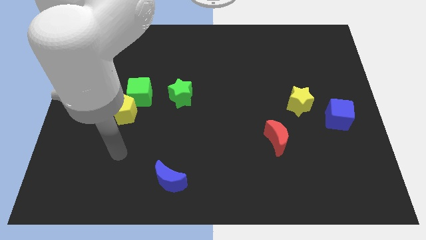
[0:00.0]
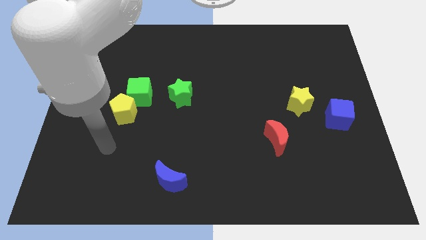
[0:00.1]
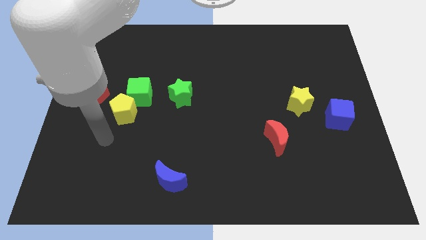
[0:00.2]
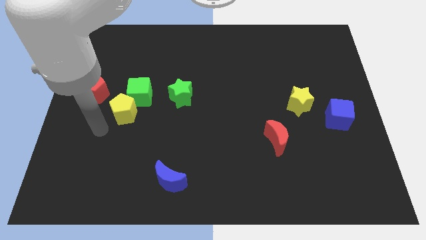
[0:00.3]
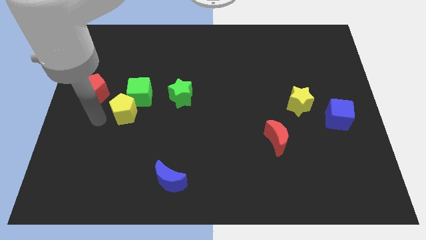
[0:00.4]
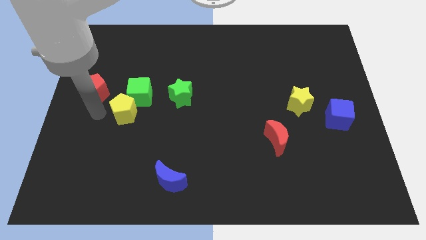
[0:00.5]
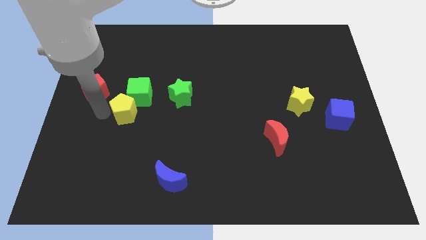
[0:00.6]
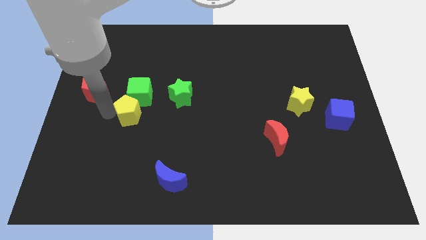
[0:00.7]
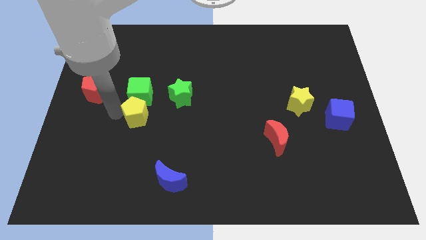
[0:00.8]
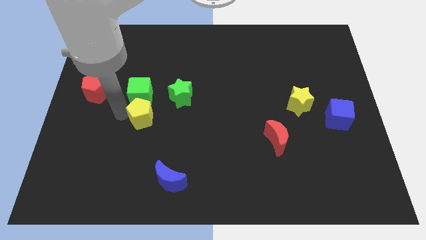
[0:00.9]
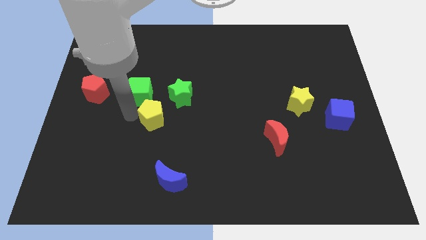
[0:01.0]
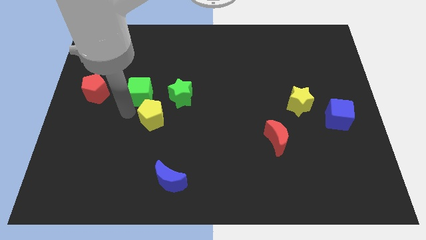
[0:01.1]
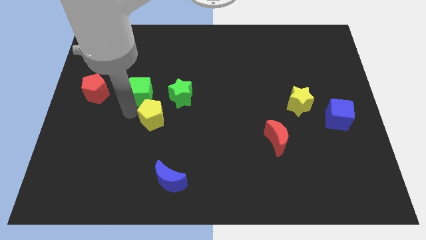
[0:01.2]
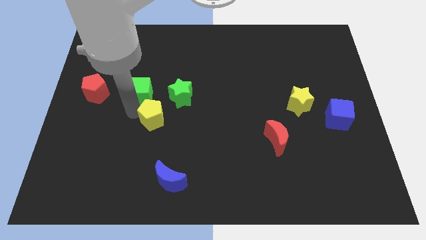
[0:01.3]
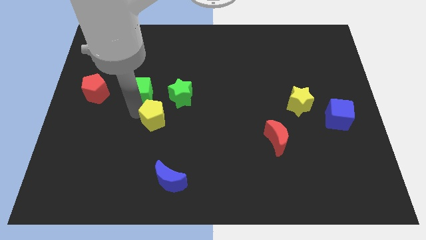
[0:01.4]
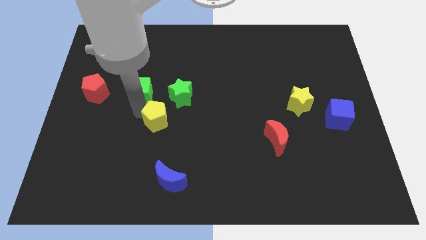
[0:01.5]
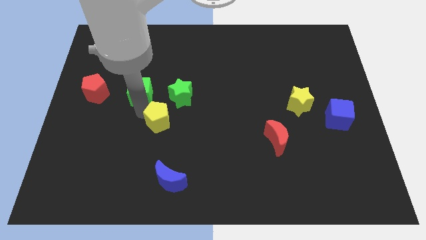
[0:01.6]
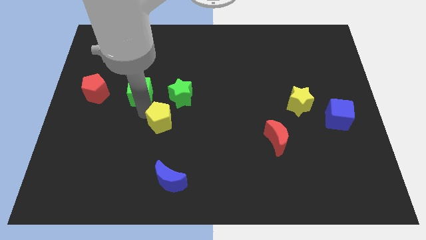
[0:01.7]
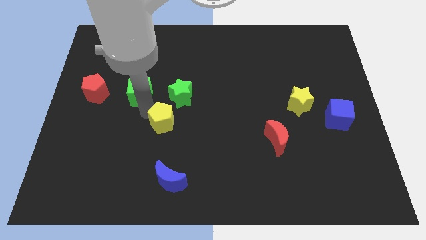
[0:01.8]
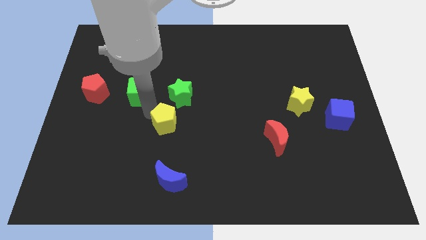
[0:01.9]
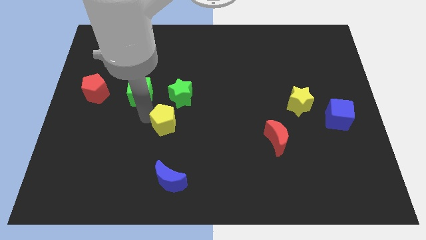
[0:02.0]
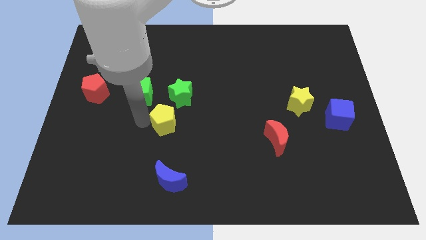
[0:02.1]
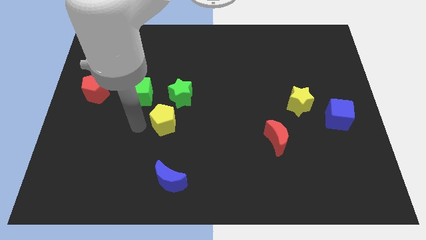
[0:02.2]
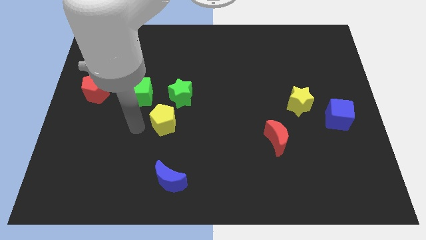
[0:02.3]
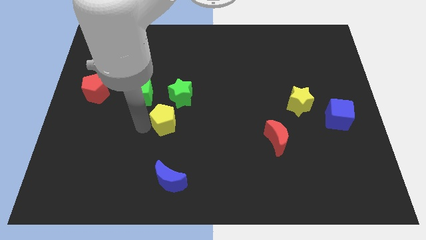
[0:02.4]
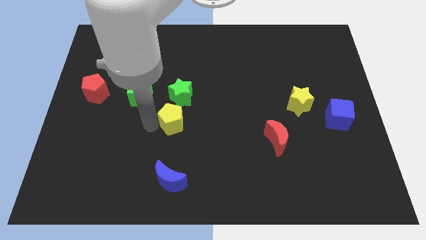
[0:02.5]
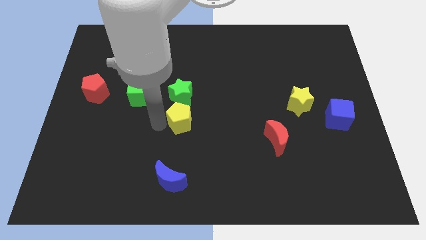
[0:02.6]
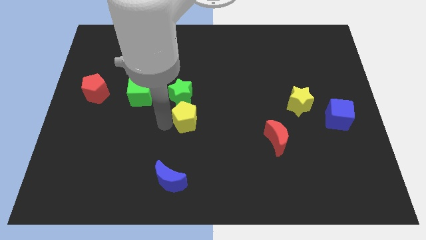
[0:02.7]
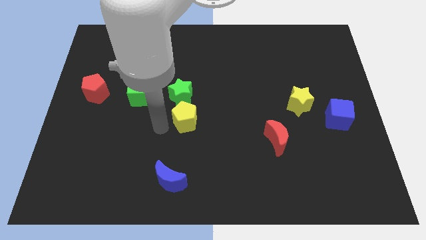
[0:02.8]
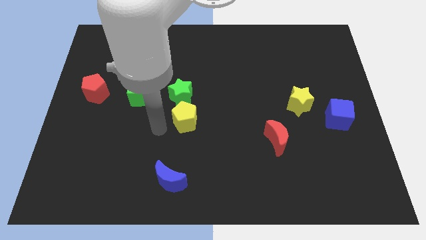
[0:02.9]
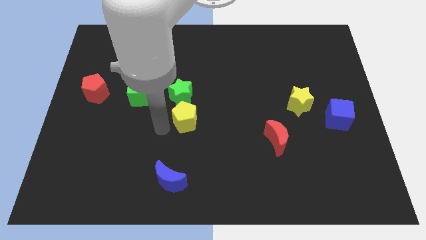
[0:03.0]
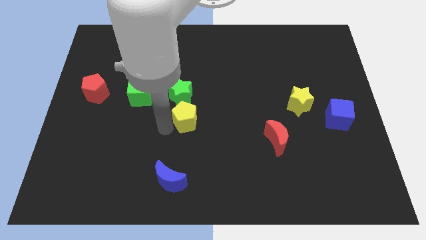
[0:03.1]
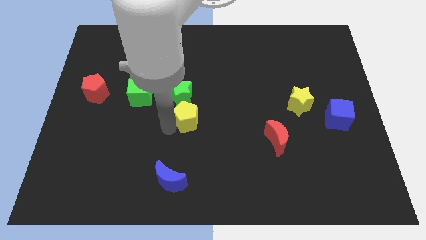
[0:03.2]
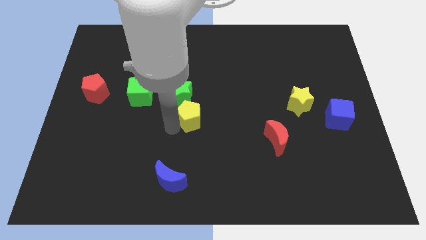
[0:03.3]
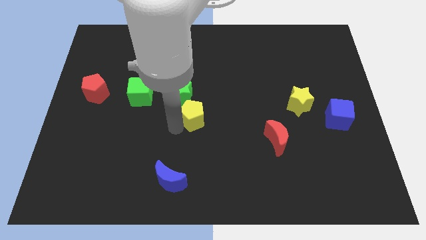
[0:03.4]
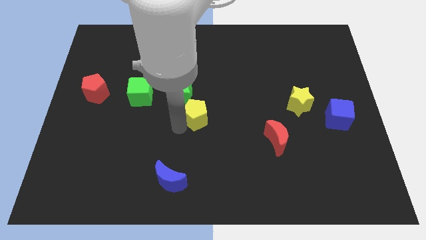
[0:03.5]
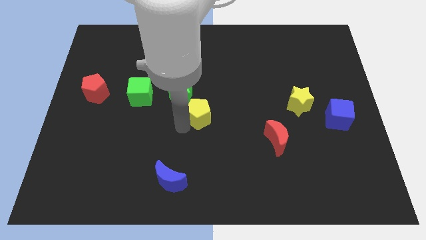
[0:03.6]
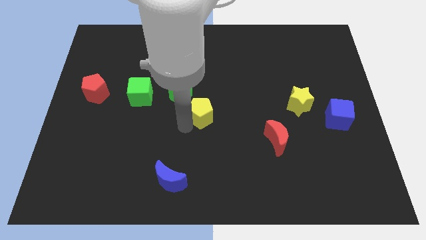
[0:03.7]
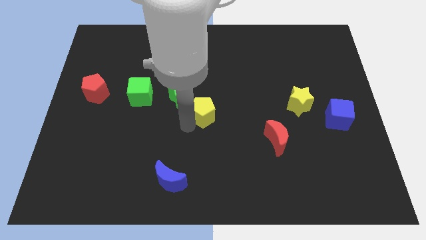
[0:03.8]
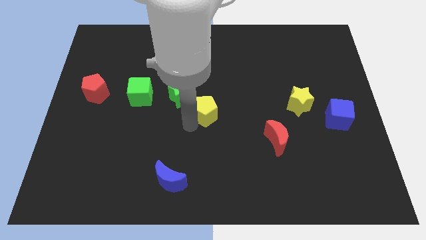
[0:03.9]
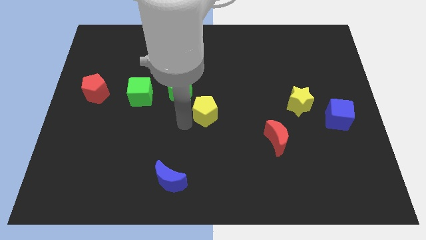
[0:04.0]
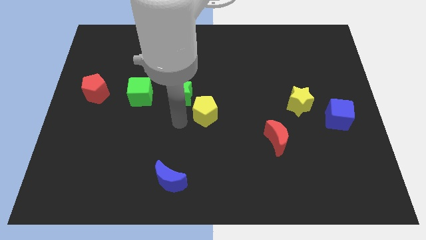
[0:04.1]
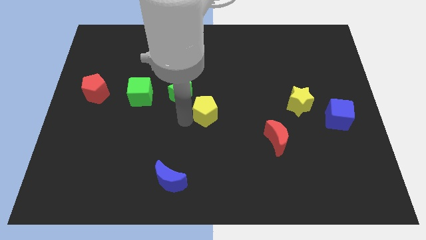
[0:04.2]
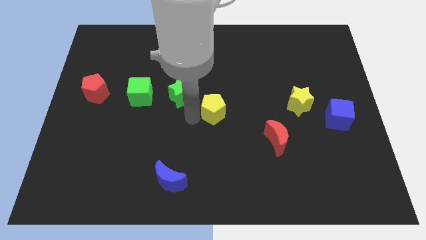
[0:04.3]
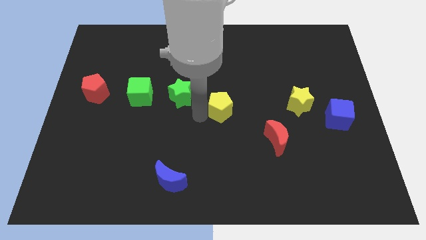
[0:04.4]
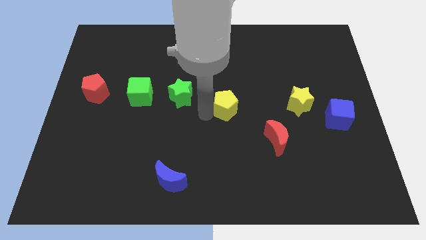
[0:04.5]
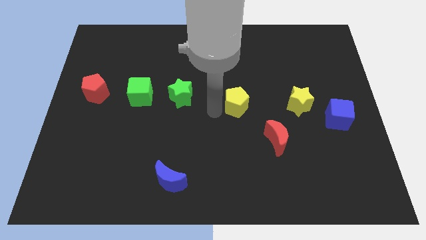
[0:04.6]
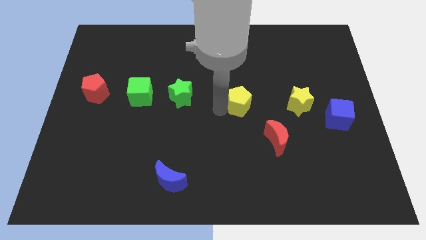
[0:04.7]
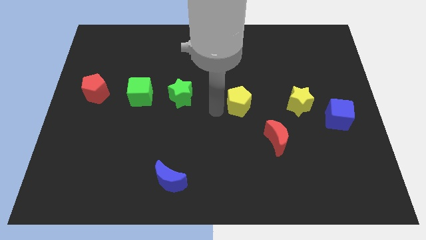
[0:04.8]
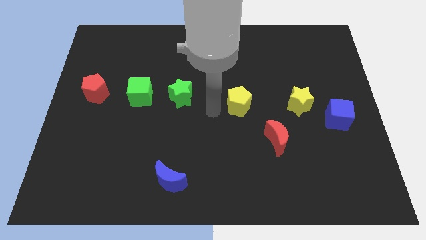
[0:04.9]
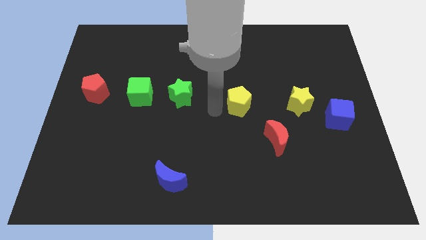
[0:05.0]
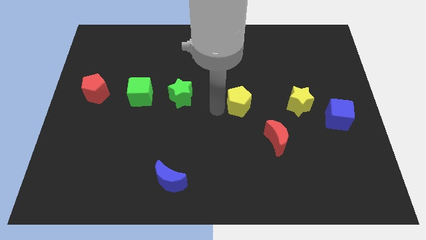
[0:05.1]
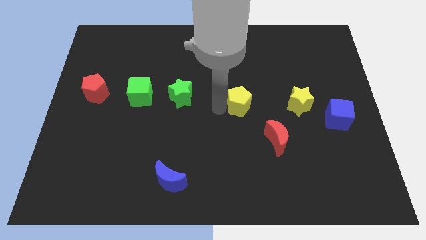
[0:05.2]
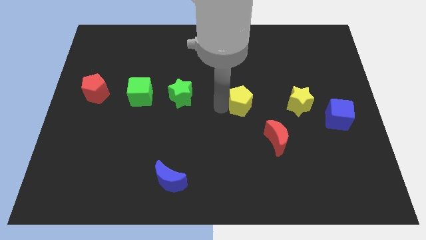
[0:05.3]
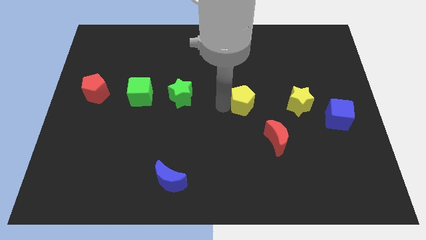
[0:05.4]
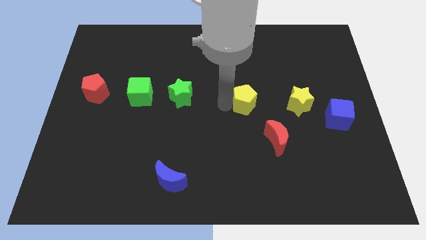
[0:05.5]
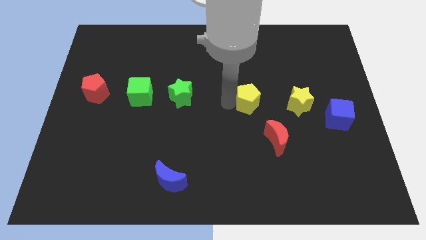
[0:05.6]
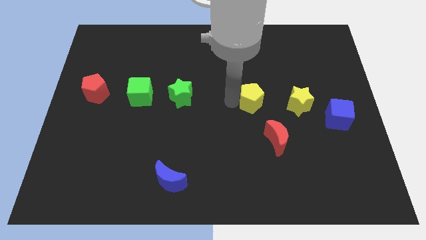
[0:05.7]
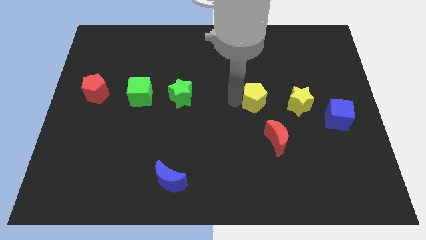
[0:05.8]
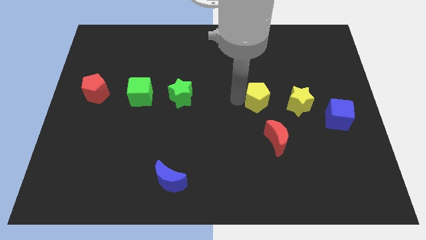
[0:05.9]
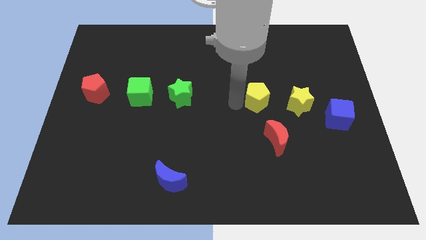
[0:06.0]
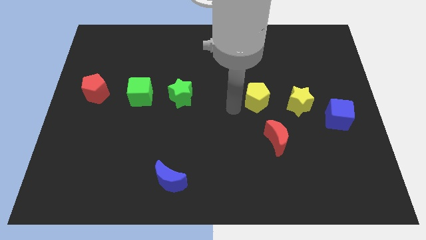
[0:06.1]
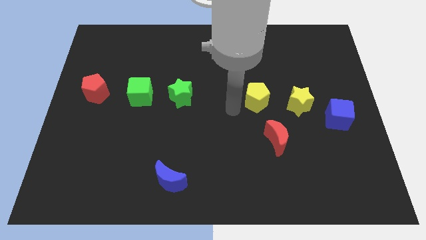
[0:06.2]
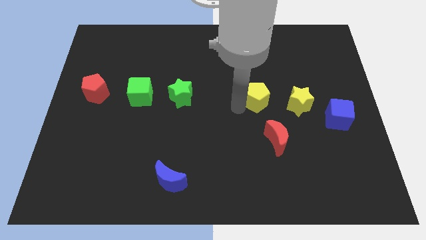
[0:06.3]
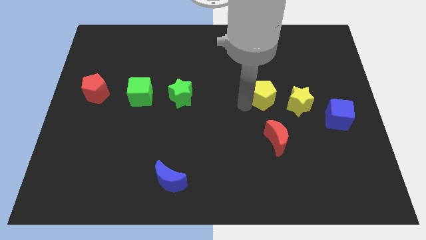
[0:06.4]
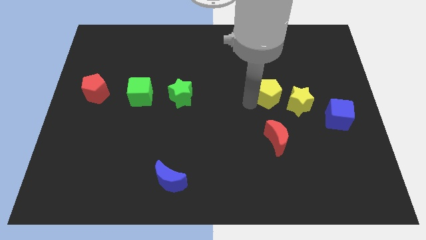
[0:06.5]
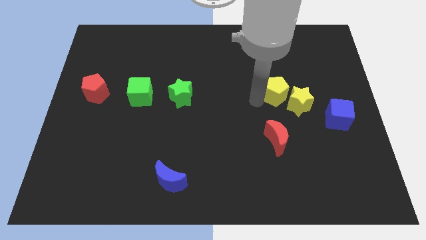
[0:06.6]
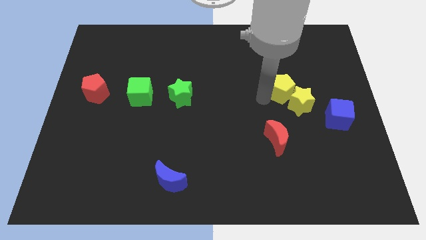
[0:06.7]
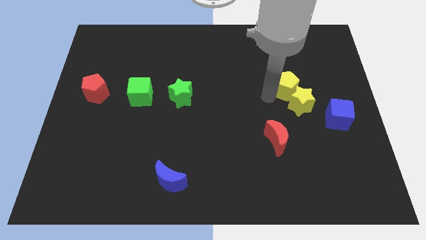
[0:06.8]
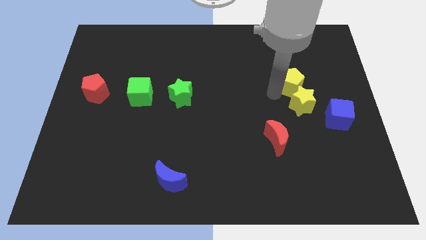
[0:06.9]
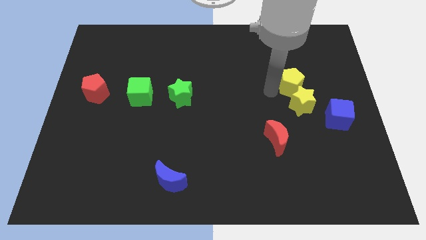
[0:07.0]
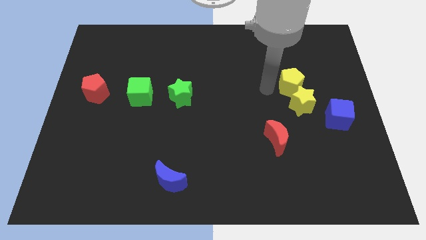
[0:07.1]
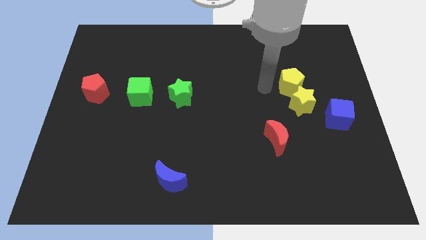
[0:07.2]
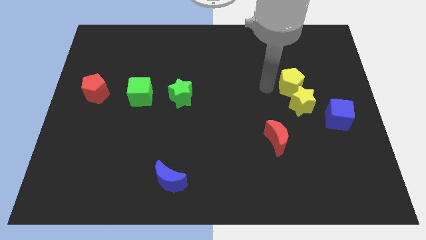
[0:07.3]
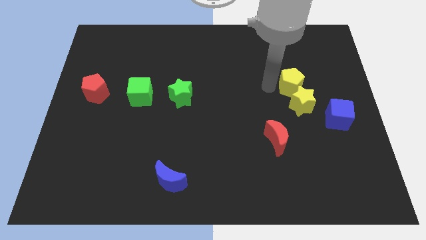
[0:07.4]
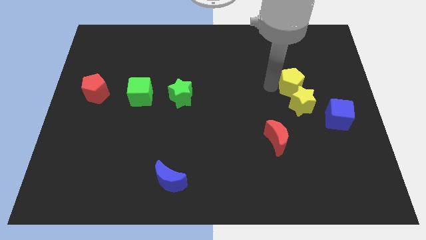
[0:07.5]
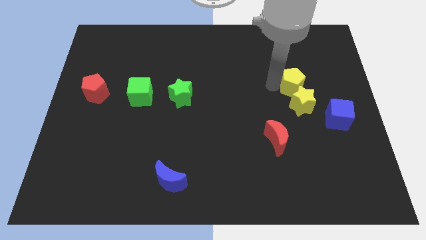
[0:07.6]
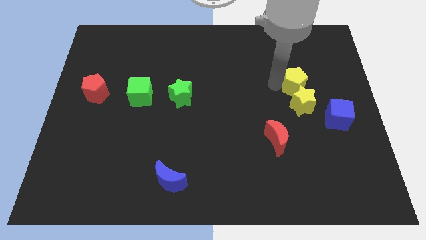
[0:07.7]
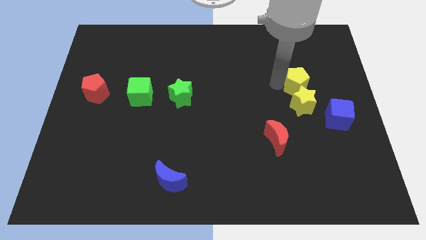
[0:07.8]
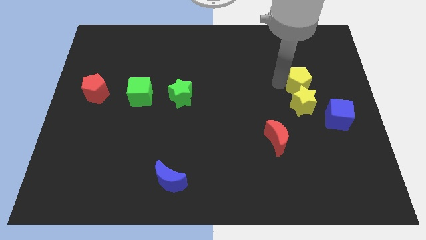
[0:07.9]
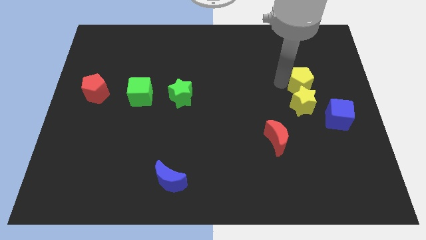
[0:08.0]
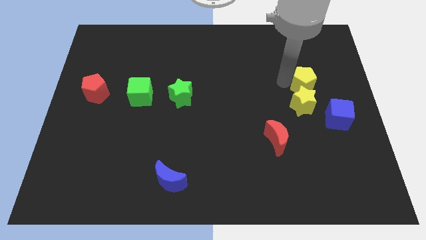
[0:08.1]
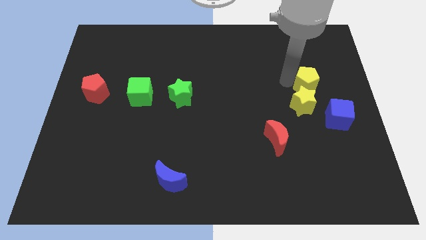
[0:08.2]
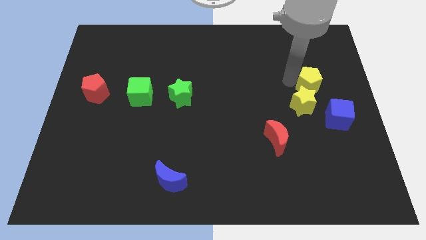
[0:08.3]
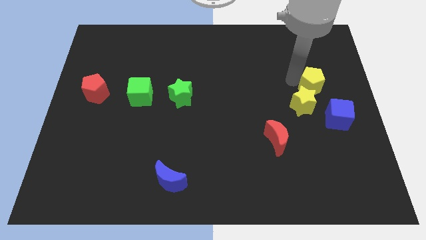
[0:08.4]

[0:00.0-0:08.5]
put the yellow pentagon above the blue cube
